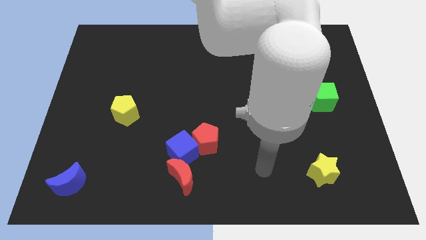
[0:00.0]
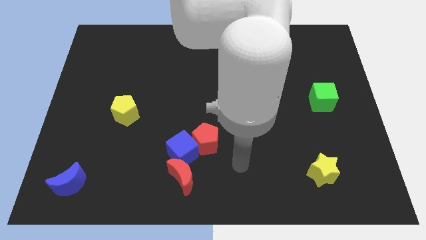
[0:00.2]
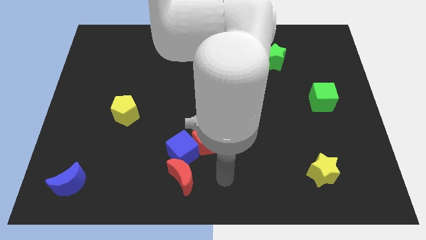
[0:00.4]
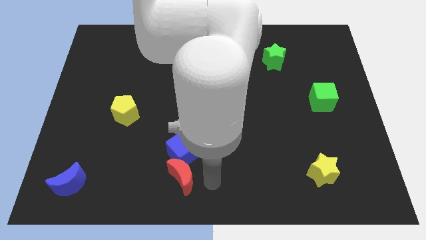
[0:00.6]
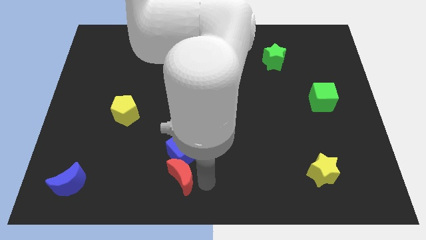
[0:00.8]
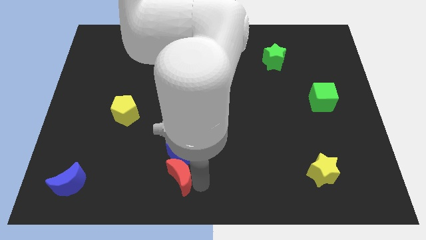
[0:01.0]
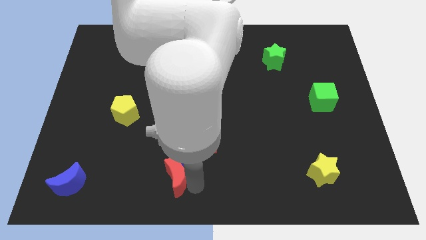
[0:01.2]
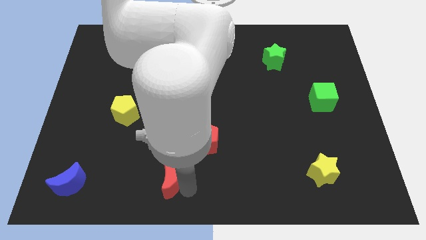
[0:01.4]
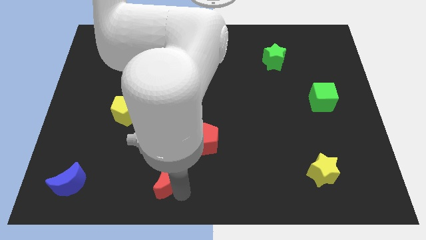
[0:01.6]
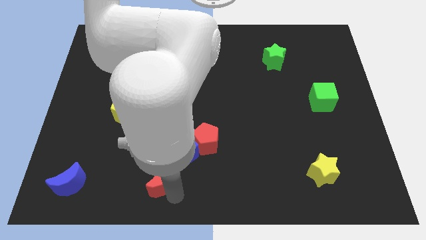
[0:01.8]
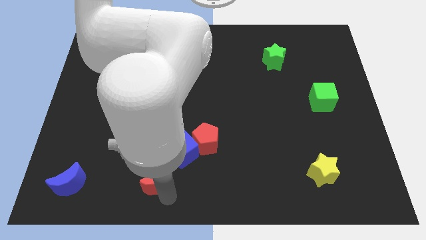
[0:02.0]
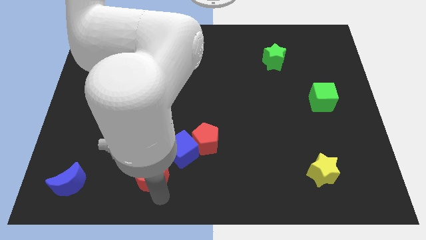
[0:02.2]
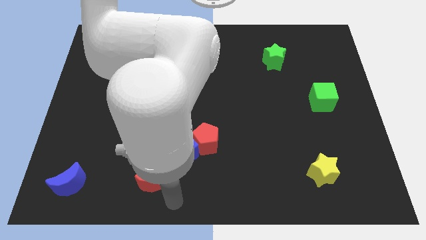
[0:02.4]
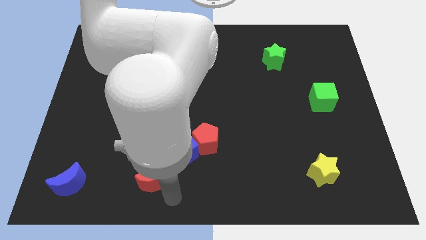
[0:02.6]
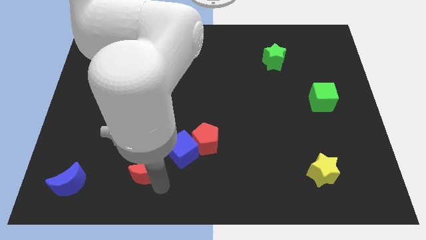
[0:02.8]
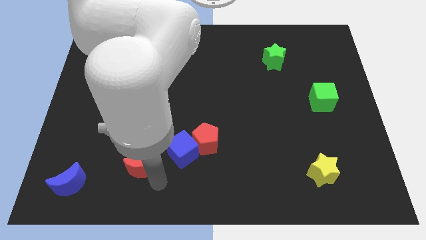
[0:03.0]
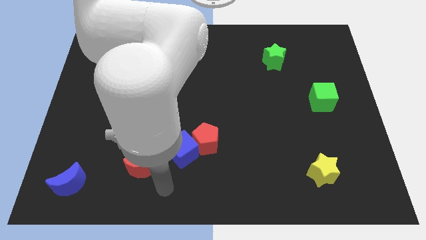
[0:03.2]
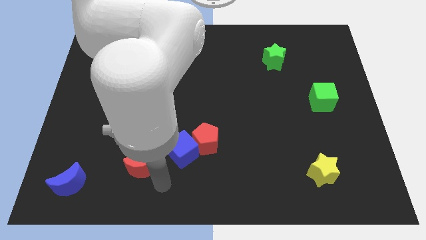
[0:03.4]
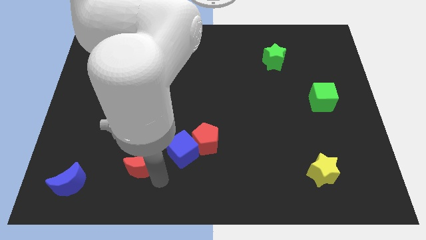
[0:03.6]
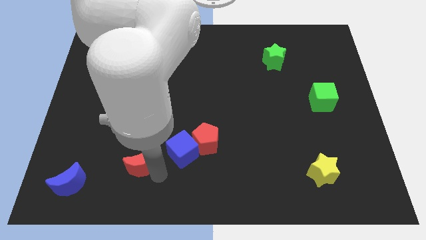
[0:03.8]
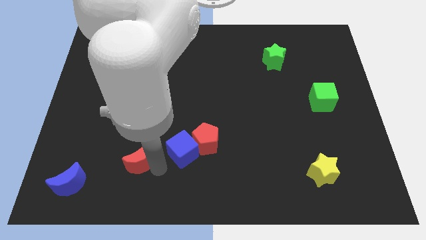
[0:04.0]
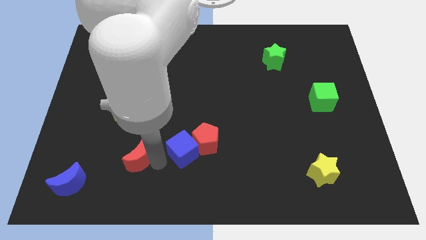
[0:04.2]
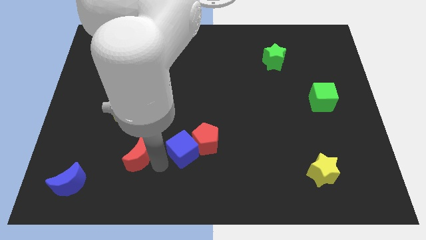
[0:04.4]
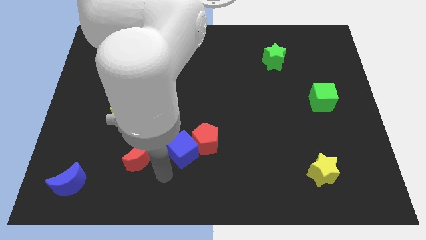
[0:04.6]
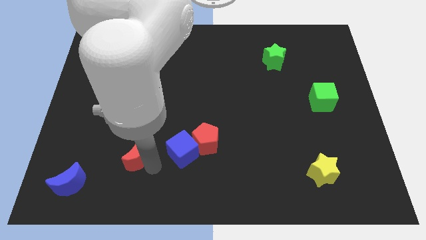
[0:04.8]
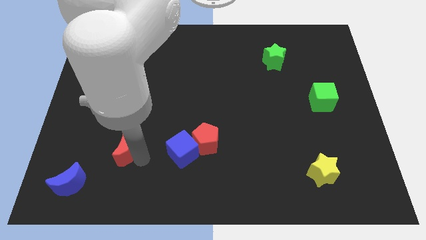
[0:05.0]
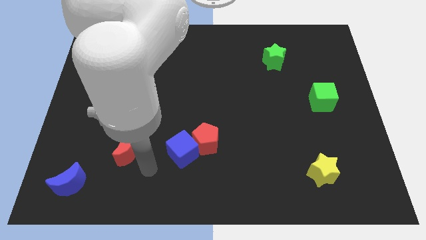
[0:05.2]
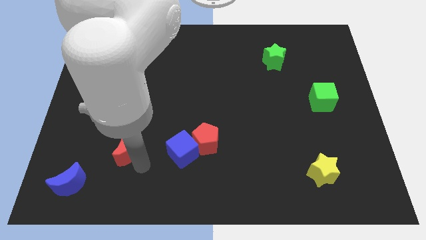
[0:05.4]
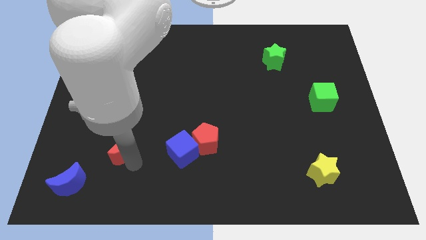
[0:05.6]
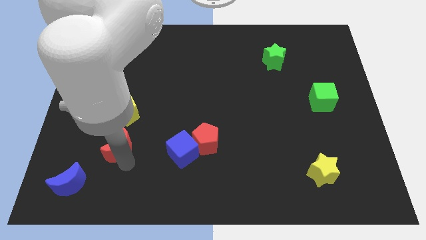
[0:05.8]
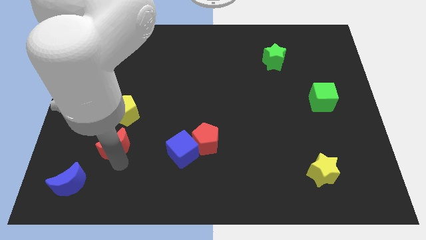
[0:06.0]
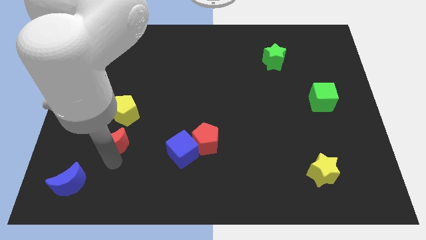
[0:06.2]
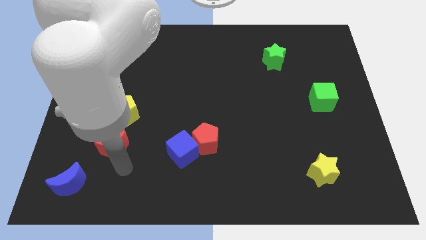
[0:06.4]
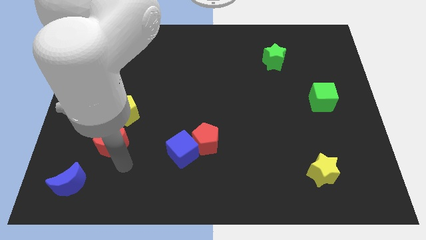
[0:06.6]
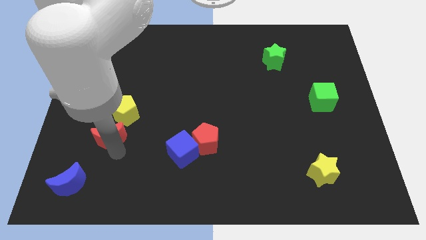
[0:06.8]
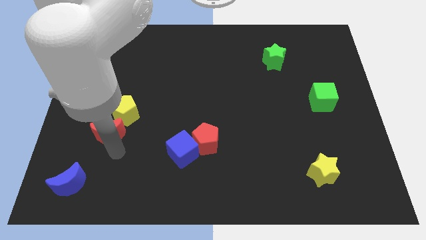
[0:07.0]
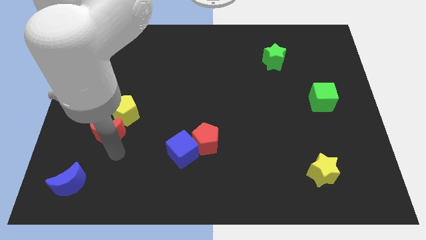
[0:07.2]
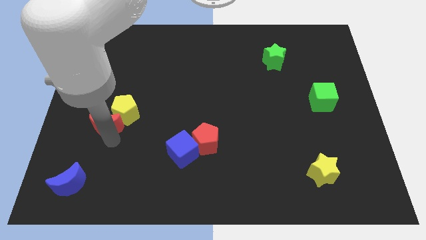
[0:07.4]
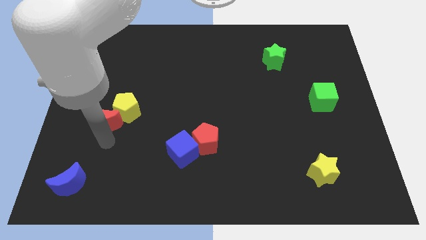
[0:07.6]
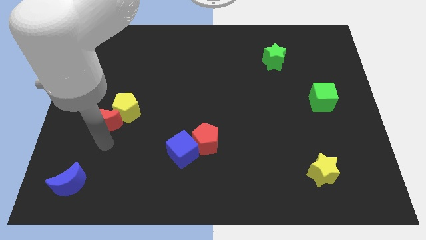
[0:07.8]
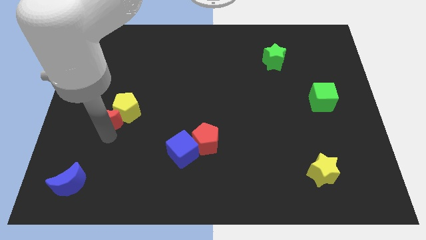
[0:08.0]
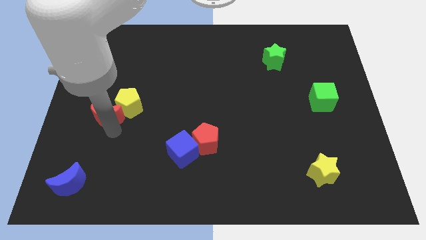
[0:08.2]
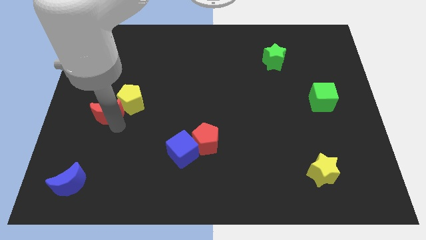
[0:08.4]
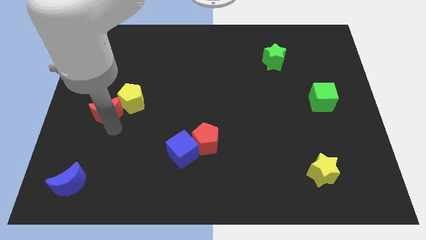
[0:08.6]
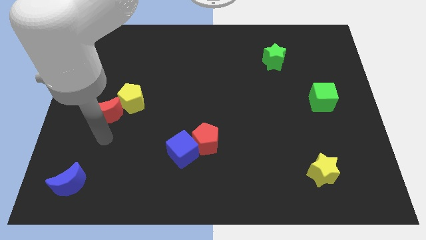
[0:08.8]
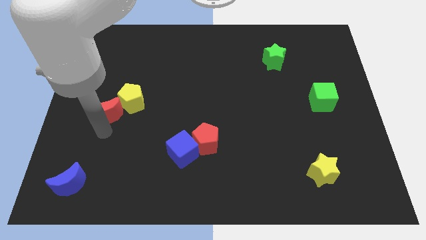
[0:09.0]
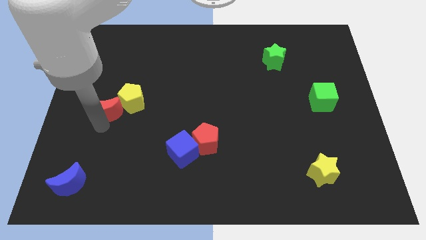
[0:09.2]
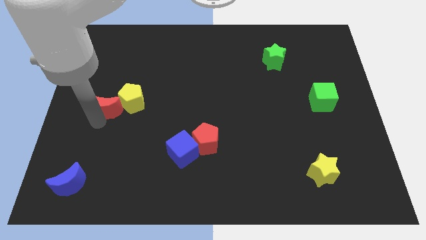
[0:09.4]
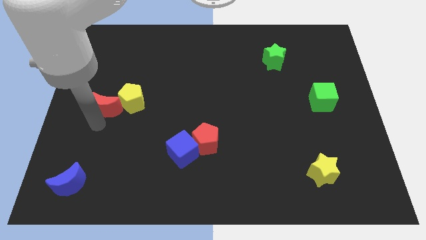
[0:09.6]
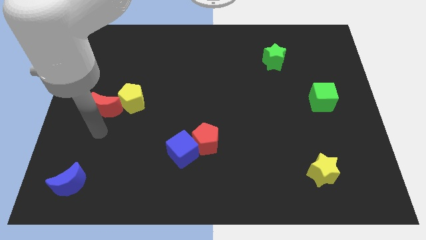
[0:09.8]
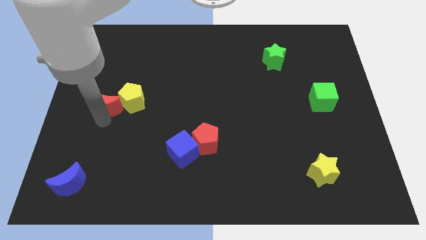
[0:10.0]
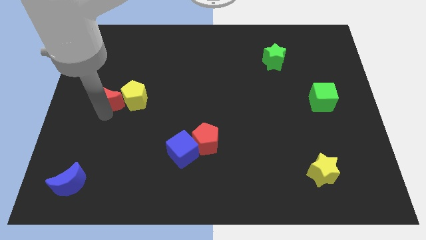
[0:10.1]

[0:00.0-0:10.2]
put the red moon to the top left of the yellow pentagon

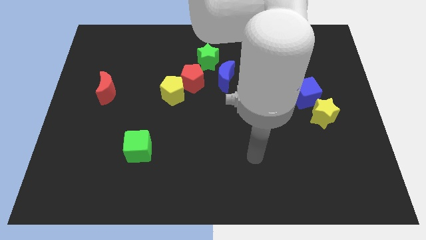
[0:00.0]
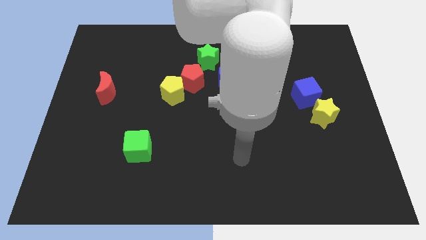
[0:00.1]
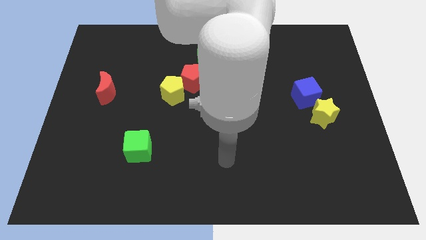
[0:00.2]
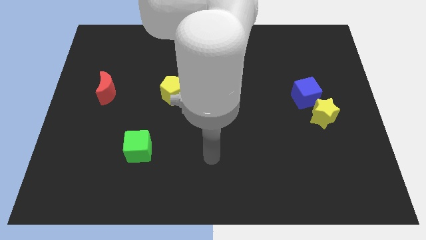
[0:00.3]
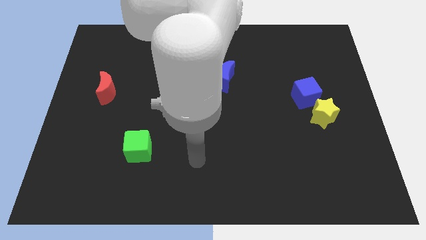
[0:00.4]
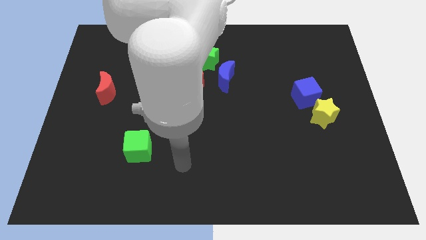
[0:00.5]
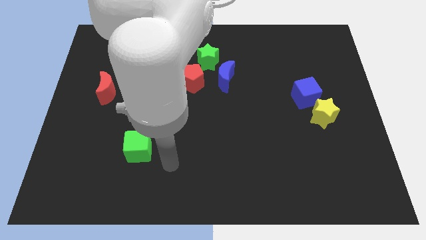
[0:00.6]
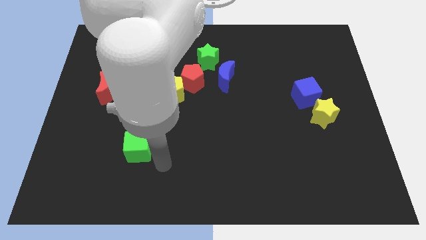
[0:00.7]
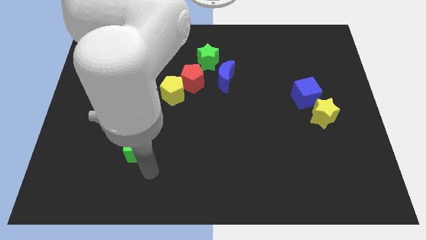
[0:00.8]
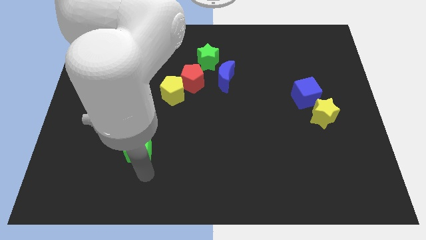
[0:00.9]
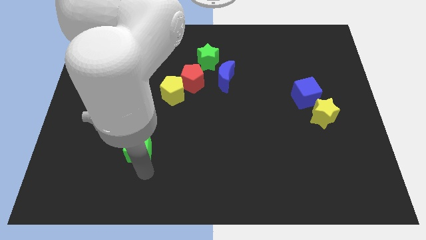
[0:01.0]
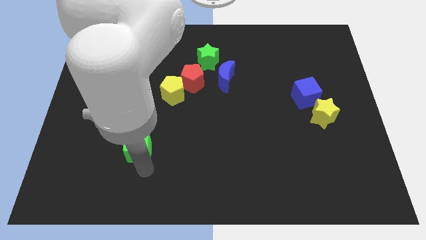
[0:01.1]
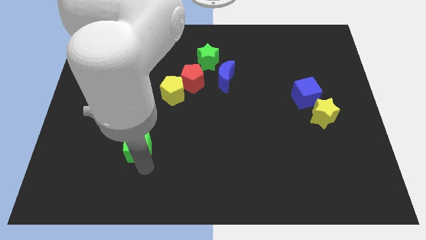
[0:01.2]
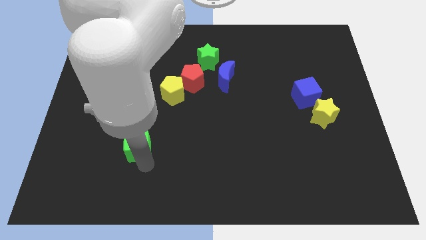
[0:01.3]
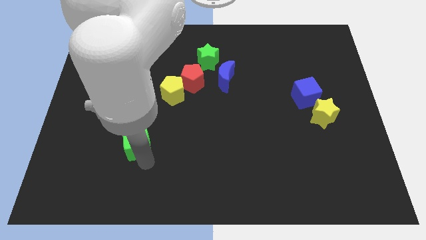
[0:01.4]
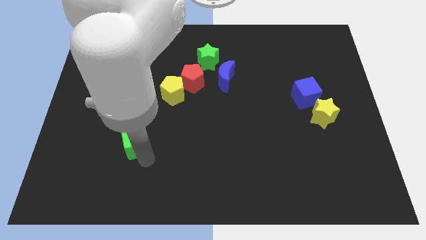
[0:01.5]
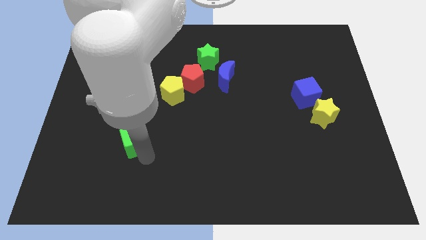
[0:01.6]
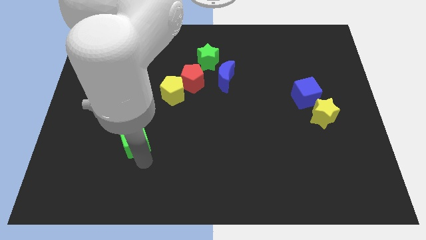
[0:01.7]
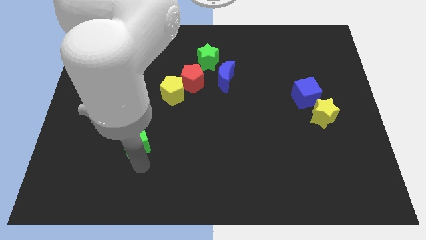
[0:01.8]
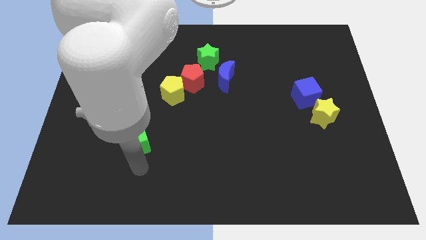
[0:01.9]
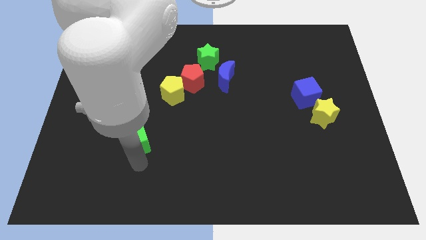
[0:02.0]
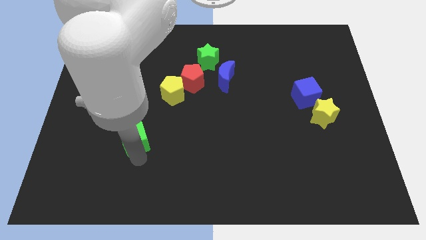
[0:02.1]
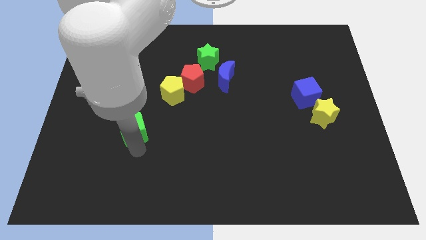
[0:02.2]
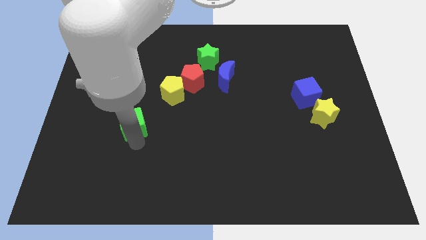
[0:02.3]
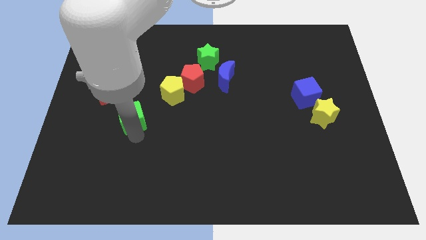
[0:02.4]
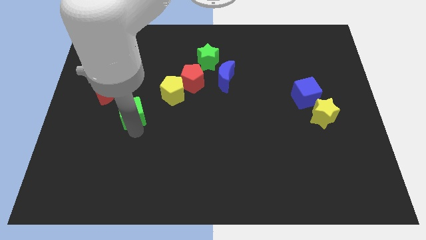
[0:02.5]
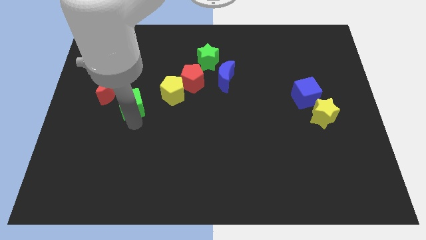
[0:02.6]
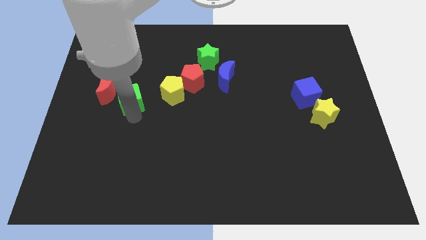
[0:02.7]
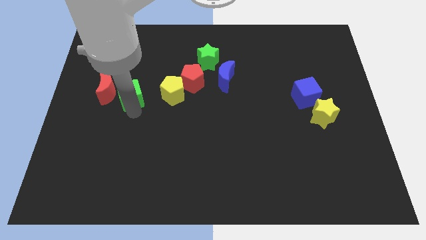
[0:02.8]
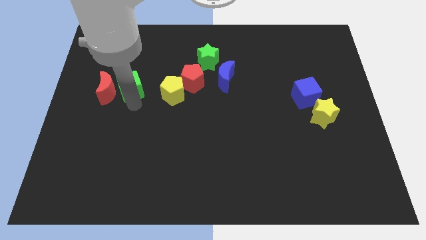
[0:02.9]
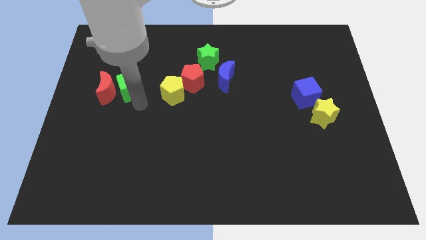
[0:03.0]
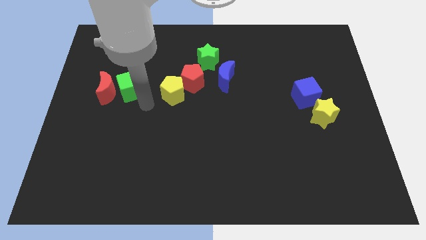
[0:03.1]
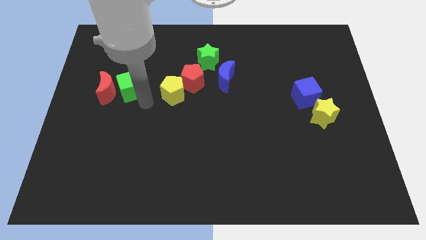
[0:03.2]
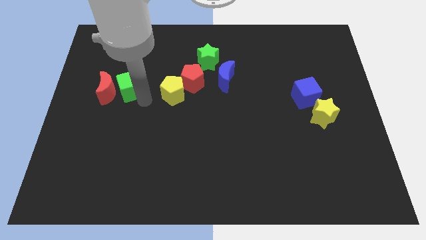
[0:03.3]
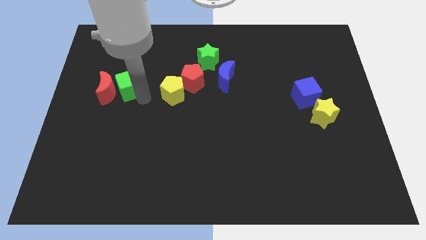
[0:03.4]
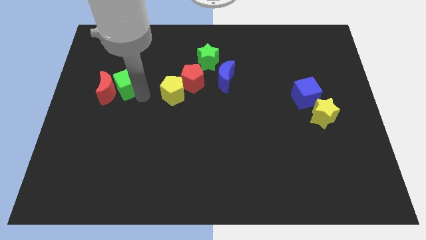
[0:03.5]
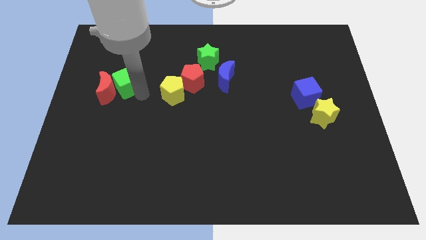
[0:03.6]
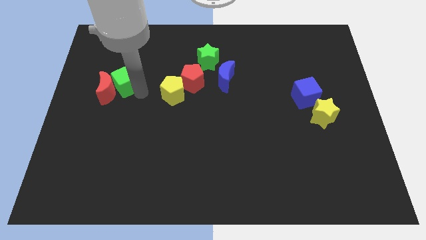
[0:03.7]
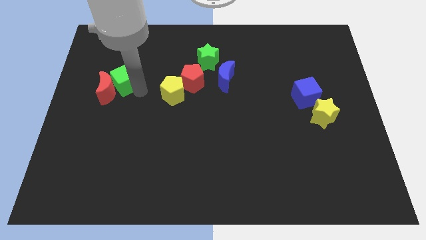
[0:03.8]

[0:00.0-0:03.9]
slide the green cube to the top side of the red moon
